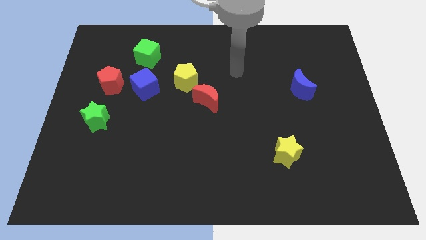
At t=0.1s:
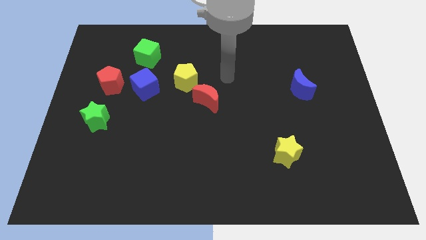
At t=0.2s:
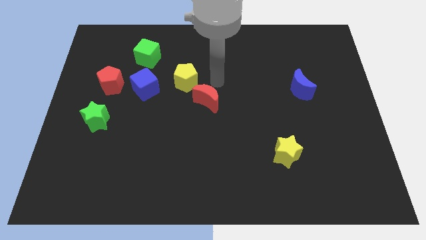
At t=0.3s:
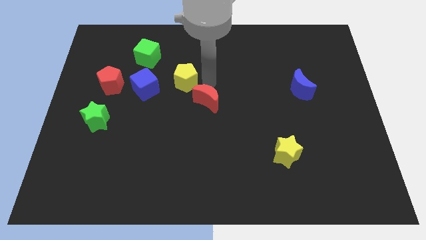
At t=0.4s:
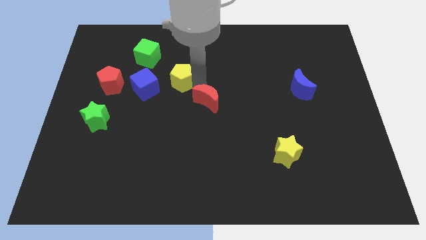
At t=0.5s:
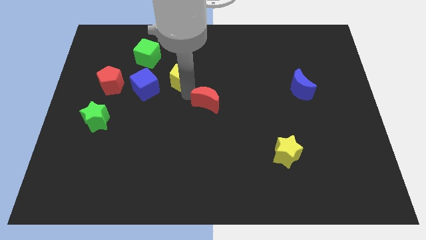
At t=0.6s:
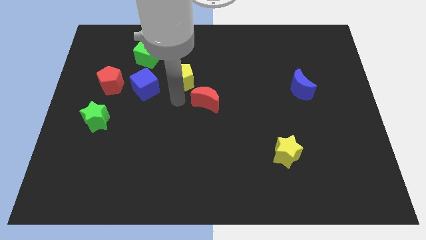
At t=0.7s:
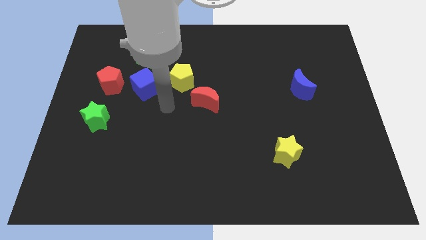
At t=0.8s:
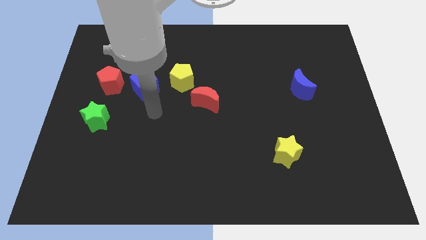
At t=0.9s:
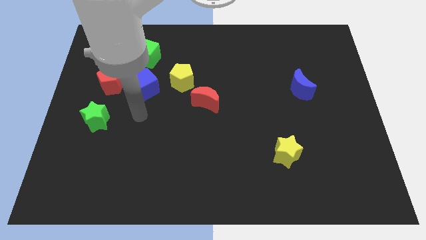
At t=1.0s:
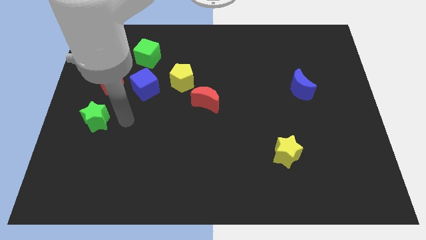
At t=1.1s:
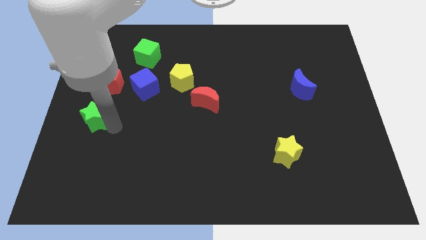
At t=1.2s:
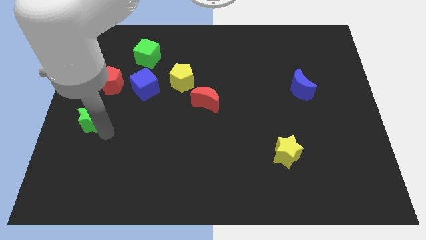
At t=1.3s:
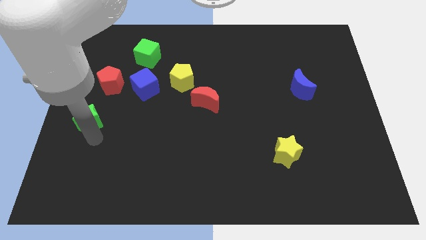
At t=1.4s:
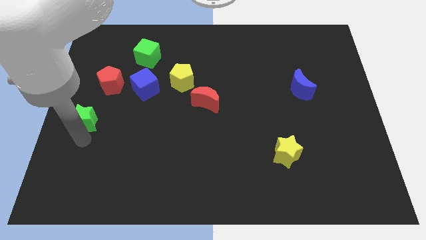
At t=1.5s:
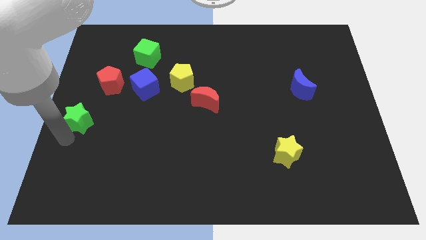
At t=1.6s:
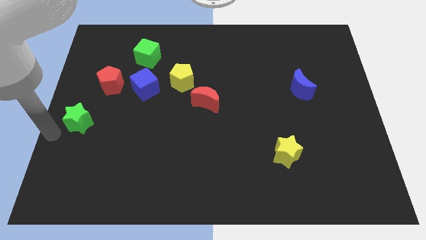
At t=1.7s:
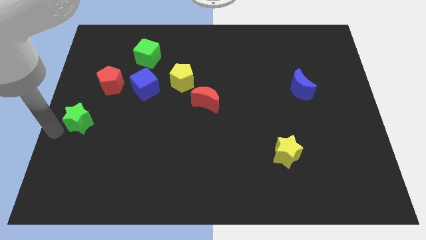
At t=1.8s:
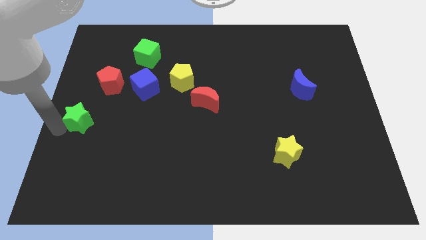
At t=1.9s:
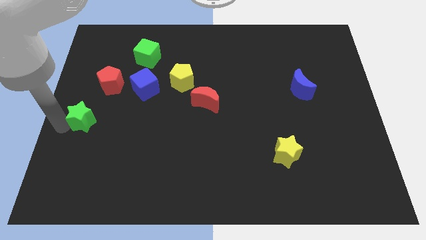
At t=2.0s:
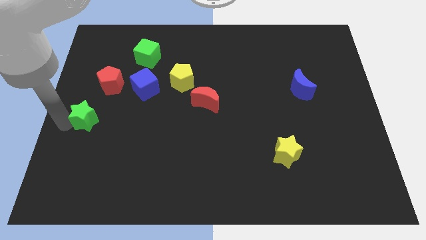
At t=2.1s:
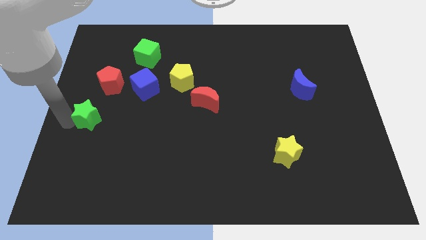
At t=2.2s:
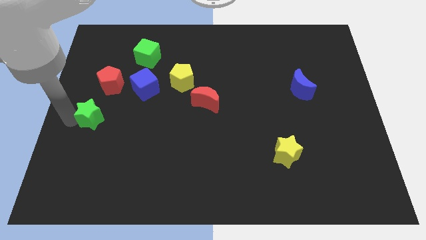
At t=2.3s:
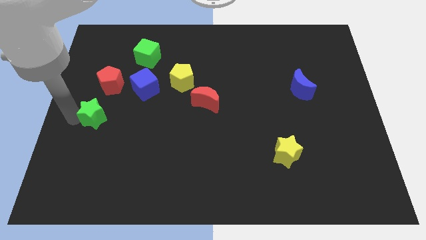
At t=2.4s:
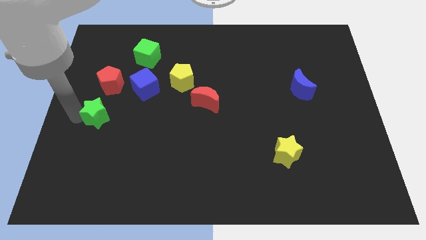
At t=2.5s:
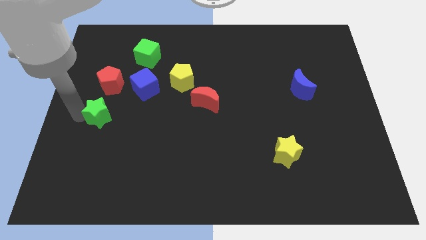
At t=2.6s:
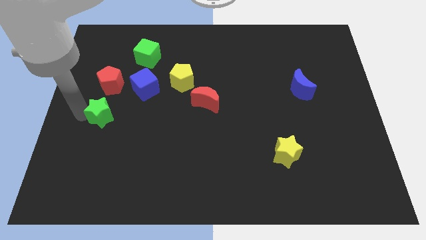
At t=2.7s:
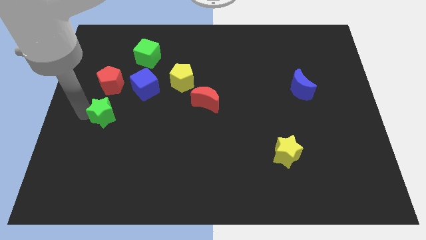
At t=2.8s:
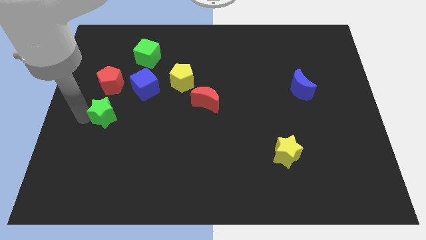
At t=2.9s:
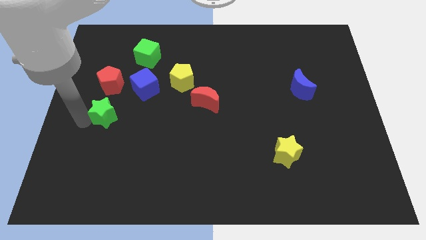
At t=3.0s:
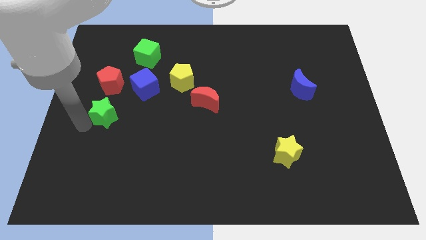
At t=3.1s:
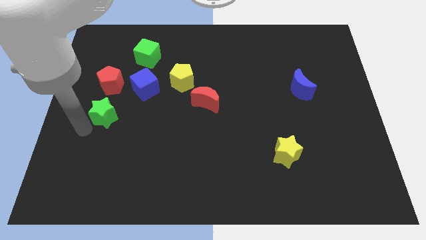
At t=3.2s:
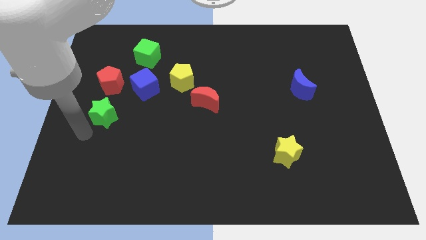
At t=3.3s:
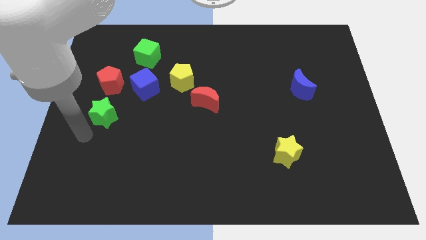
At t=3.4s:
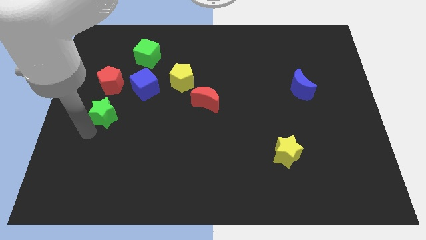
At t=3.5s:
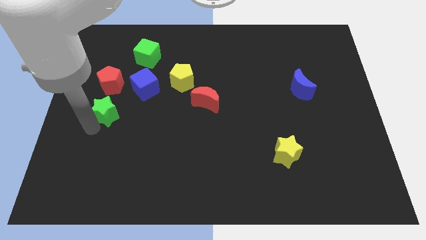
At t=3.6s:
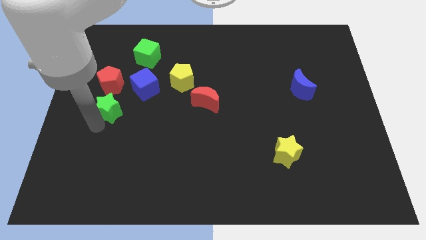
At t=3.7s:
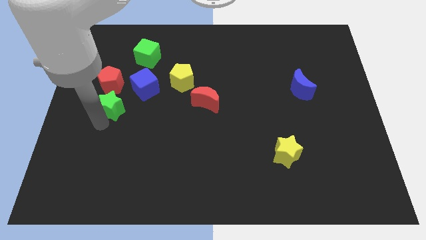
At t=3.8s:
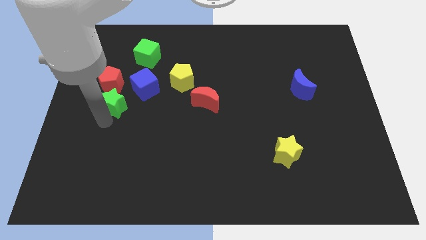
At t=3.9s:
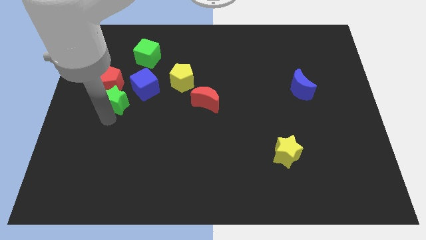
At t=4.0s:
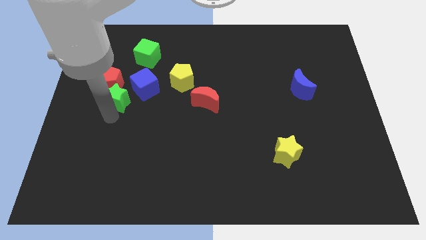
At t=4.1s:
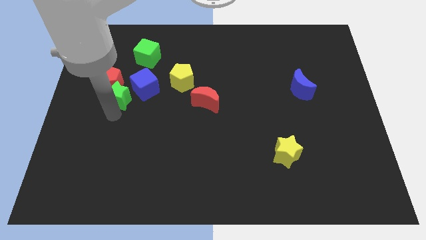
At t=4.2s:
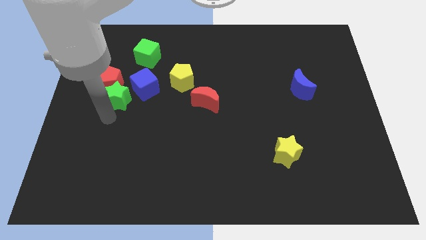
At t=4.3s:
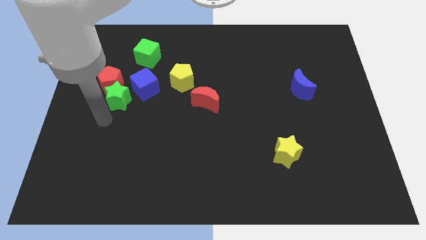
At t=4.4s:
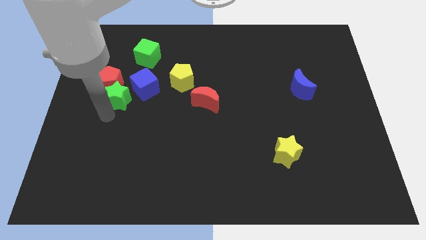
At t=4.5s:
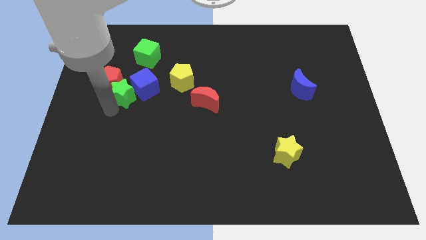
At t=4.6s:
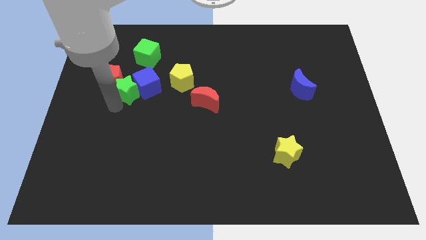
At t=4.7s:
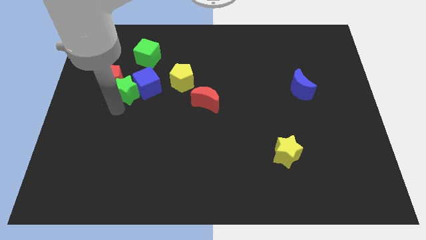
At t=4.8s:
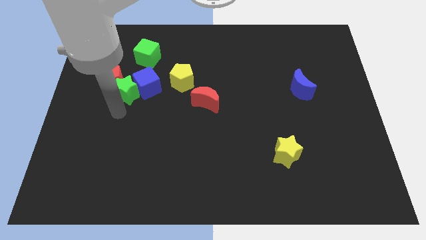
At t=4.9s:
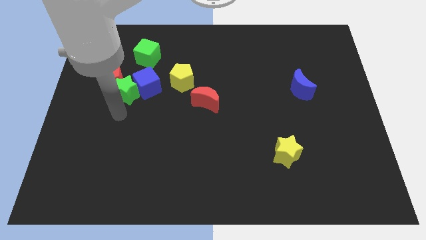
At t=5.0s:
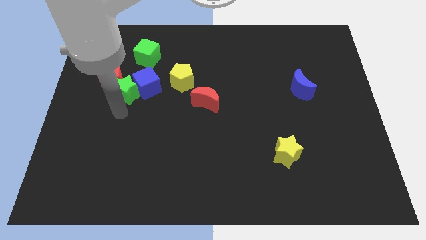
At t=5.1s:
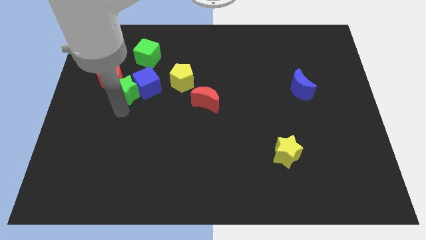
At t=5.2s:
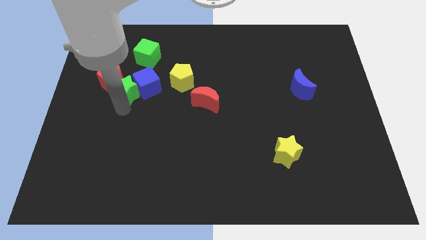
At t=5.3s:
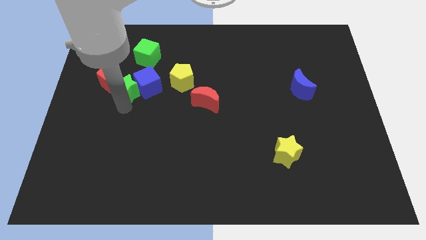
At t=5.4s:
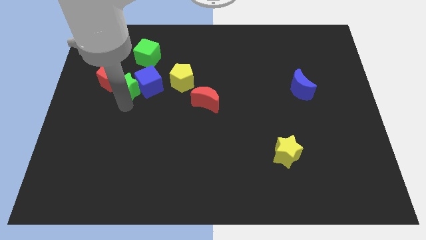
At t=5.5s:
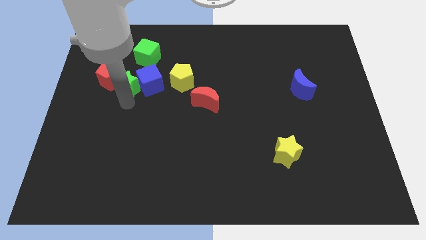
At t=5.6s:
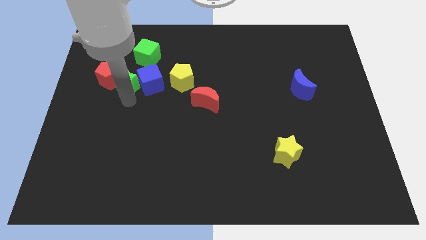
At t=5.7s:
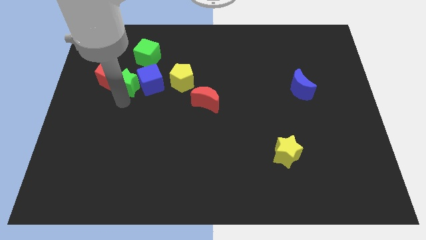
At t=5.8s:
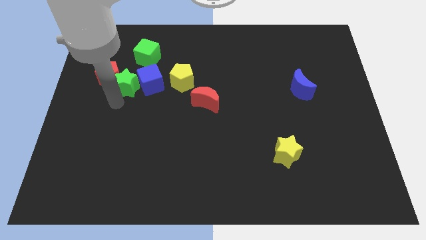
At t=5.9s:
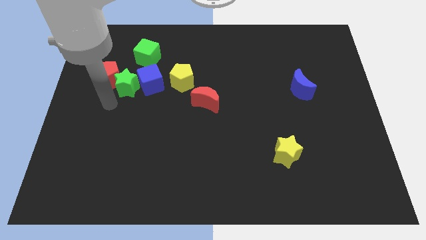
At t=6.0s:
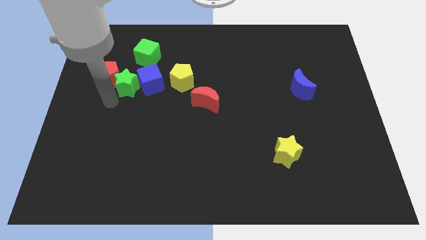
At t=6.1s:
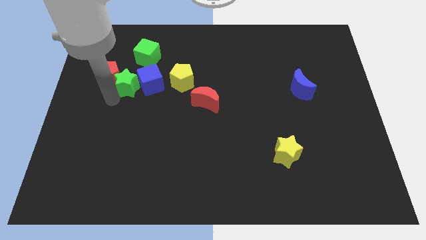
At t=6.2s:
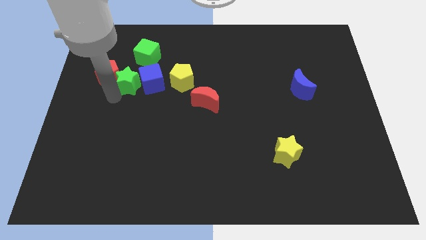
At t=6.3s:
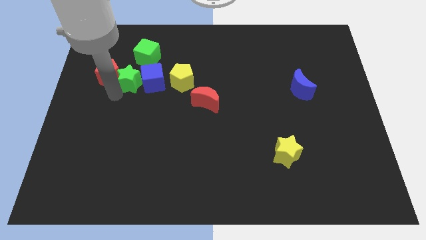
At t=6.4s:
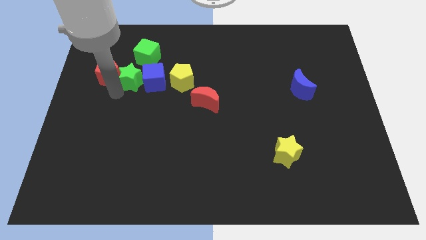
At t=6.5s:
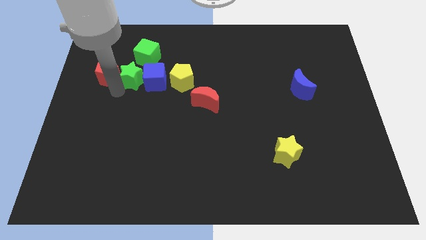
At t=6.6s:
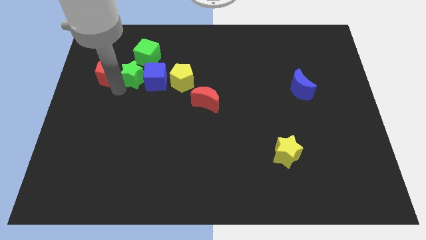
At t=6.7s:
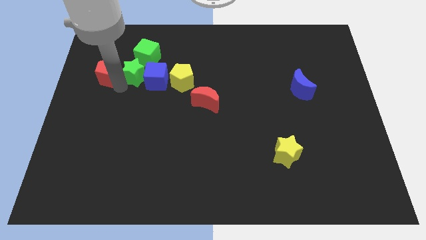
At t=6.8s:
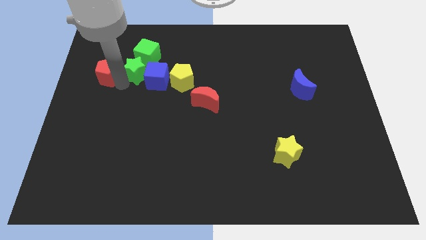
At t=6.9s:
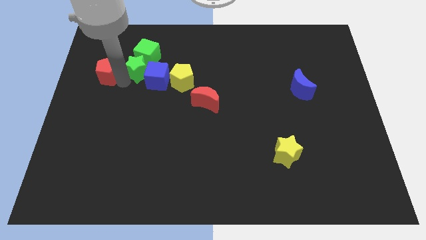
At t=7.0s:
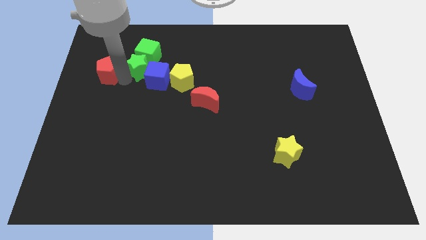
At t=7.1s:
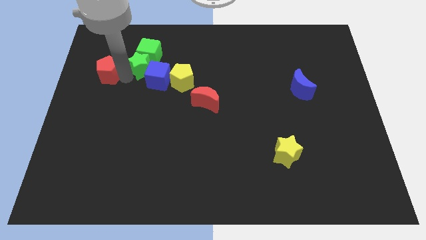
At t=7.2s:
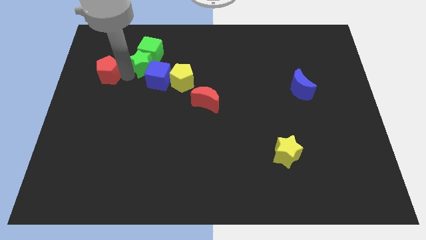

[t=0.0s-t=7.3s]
put the green star to the top left of the yellow pentagon

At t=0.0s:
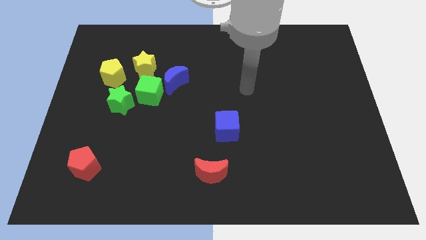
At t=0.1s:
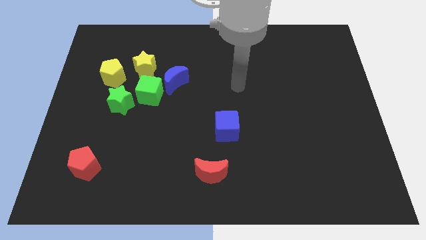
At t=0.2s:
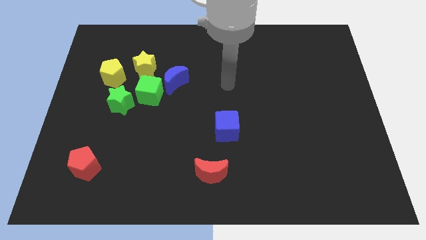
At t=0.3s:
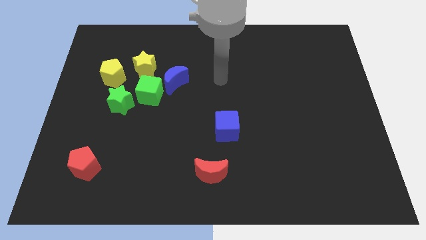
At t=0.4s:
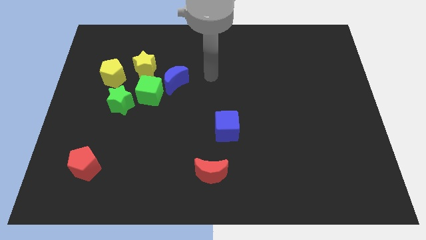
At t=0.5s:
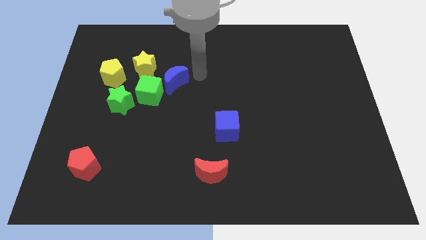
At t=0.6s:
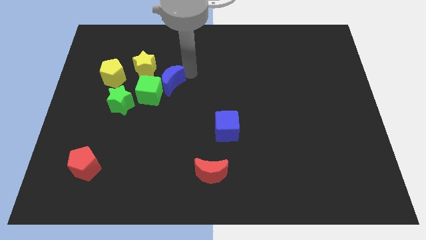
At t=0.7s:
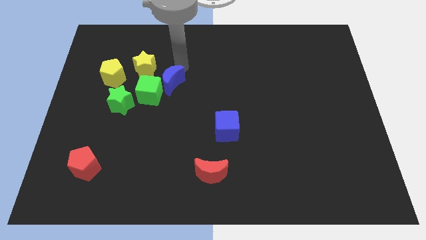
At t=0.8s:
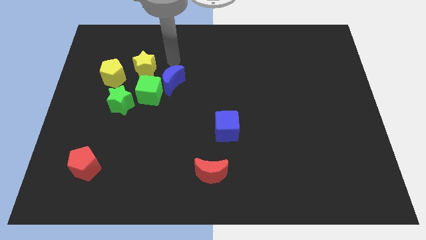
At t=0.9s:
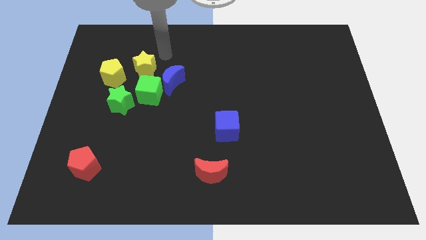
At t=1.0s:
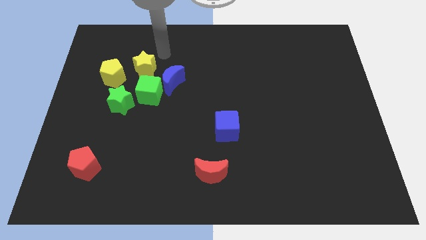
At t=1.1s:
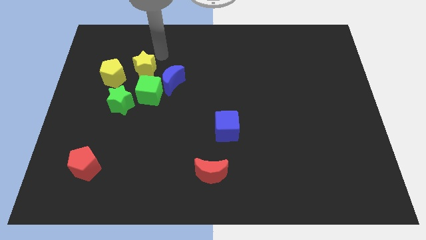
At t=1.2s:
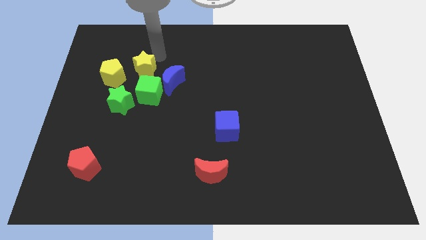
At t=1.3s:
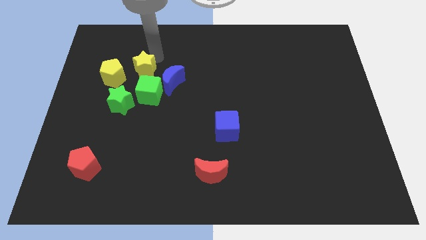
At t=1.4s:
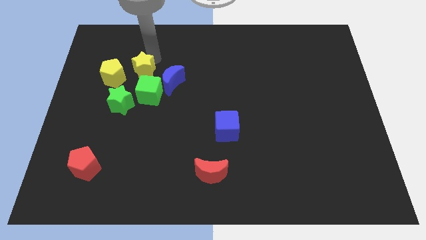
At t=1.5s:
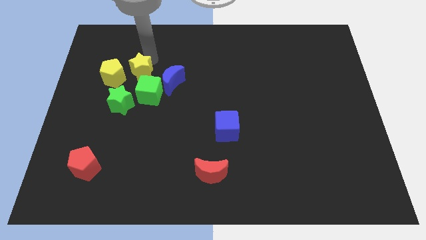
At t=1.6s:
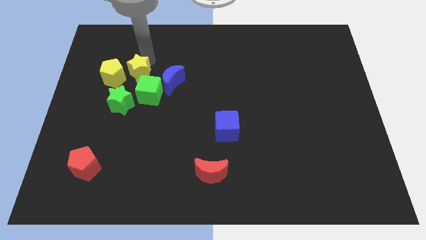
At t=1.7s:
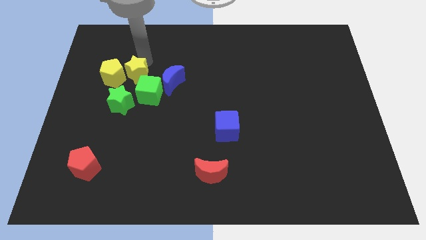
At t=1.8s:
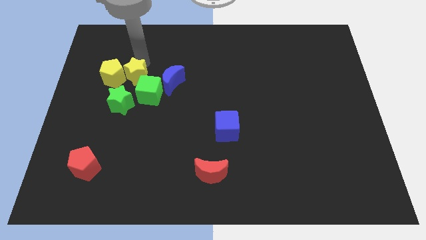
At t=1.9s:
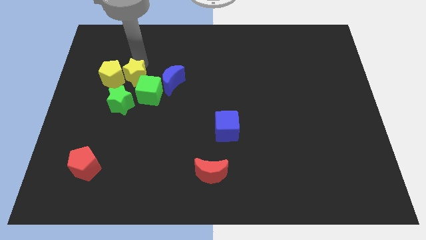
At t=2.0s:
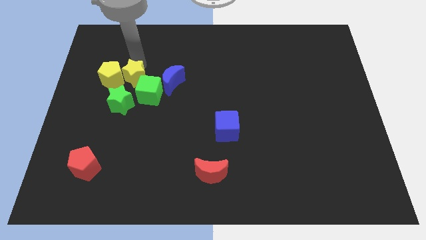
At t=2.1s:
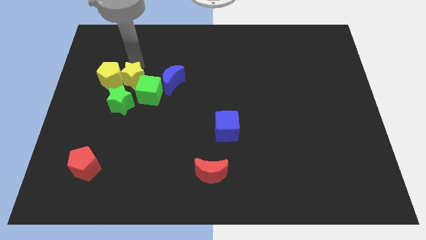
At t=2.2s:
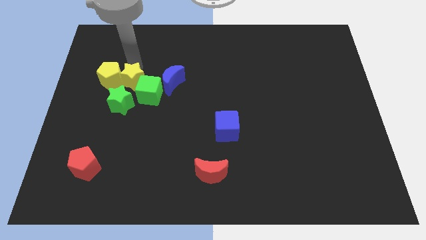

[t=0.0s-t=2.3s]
move the yellow star to the left side of the green cube
